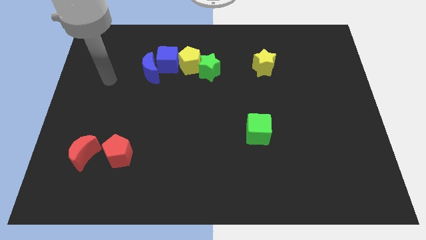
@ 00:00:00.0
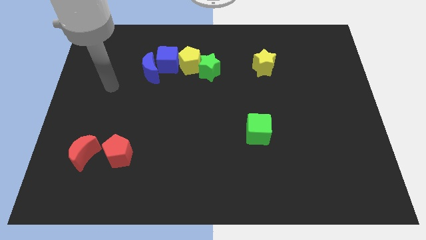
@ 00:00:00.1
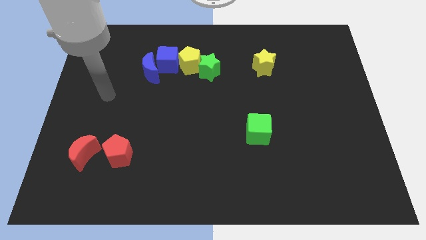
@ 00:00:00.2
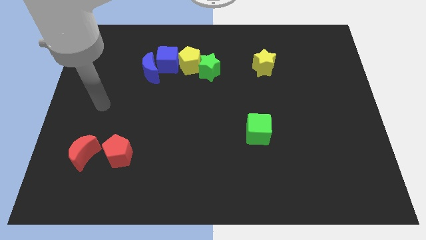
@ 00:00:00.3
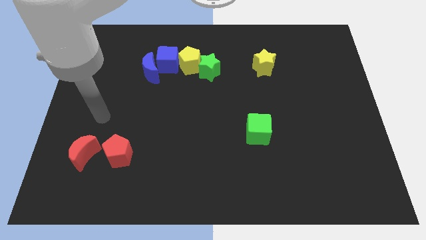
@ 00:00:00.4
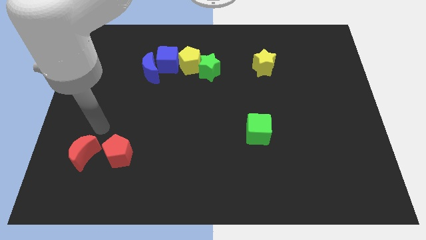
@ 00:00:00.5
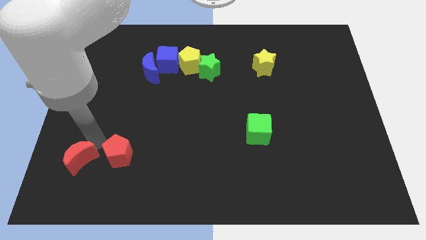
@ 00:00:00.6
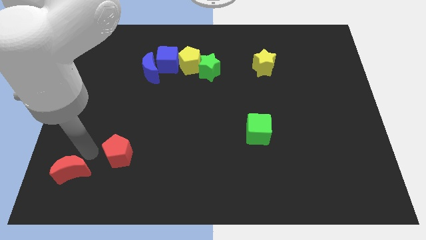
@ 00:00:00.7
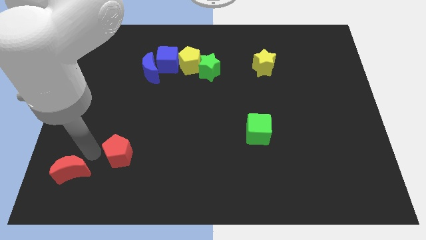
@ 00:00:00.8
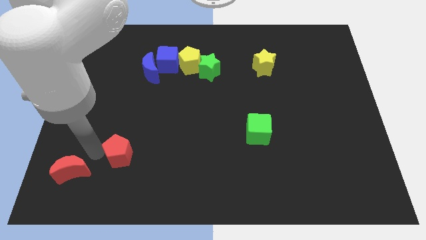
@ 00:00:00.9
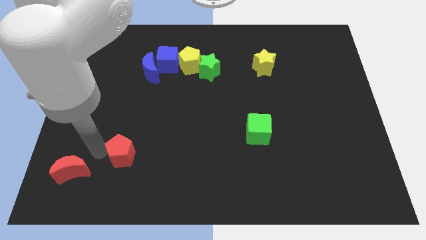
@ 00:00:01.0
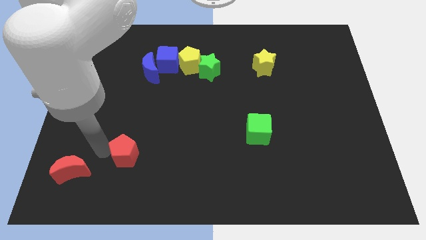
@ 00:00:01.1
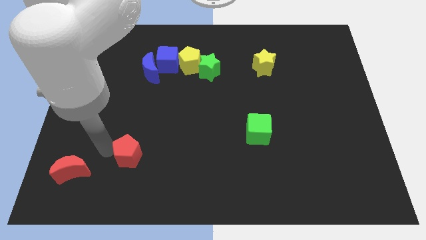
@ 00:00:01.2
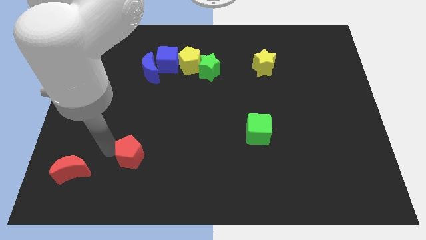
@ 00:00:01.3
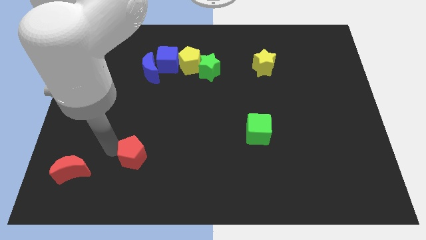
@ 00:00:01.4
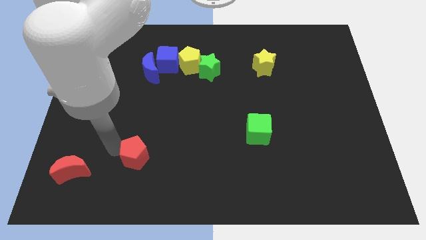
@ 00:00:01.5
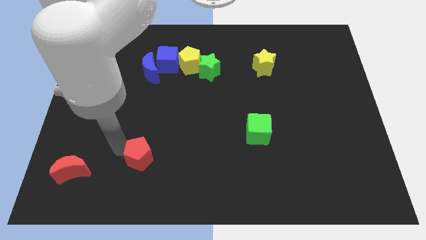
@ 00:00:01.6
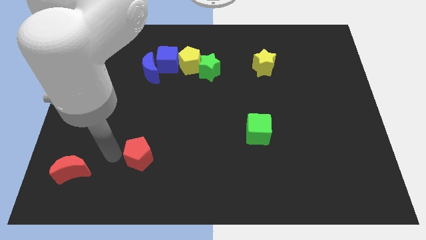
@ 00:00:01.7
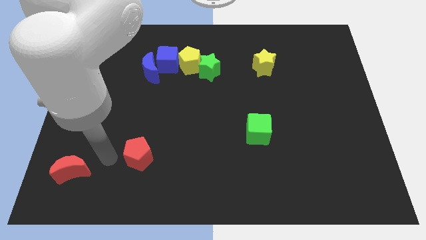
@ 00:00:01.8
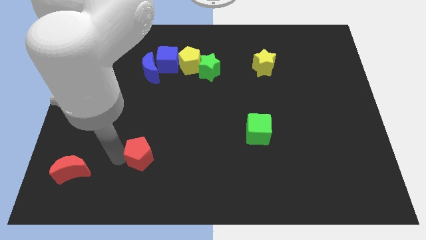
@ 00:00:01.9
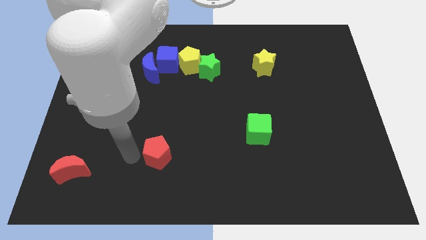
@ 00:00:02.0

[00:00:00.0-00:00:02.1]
slightly slide the red pentagon to the right

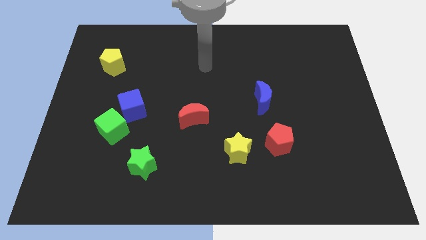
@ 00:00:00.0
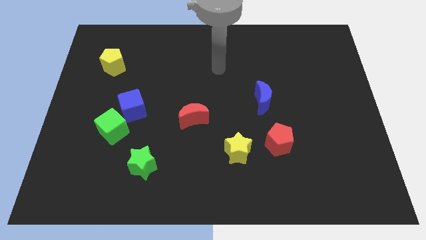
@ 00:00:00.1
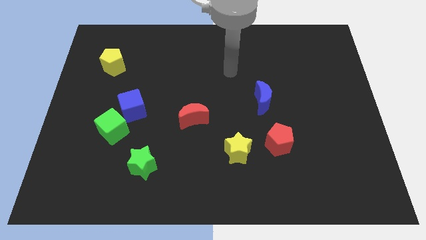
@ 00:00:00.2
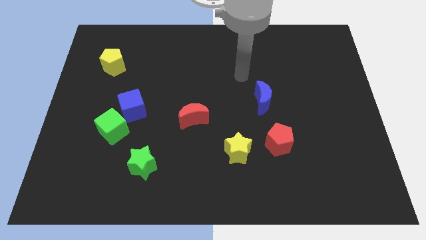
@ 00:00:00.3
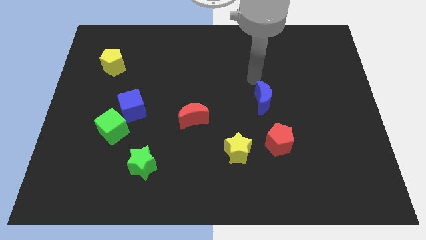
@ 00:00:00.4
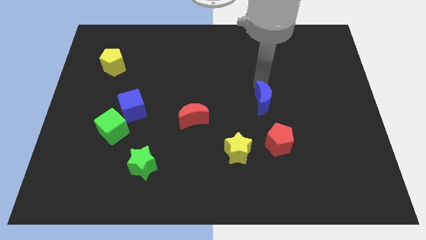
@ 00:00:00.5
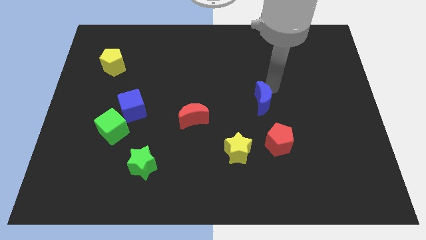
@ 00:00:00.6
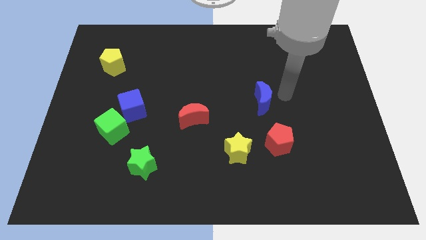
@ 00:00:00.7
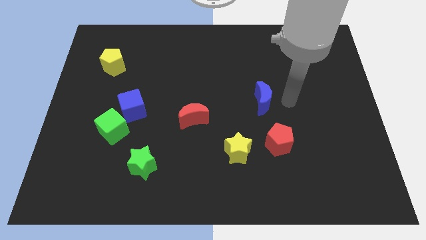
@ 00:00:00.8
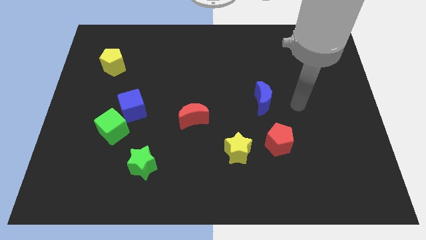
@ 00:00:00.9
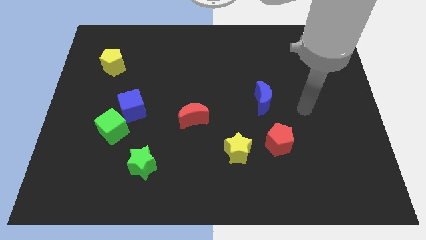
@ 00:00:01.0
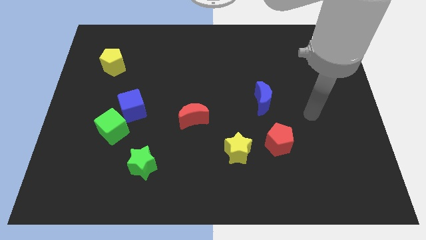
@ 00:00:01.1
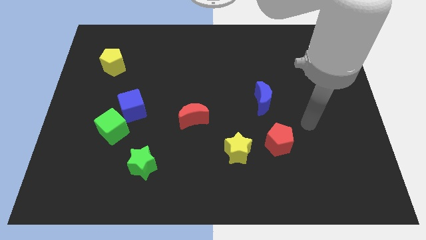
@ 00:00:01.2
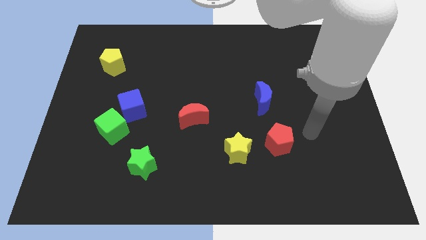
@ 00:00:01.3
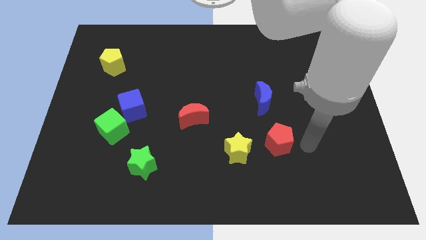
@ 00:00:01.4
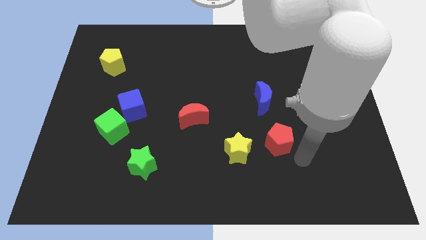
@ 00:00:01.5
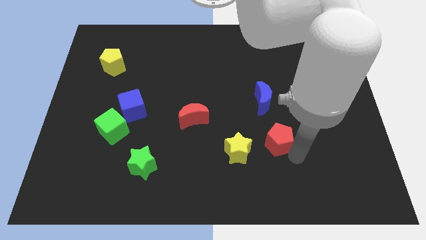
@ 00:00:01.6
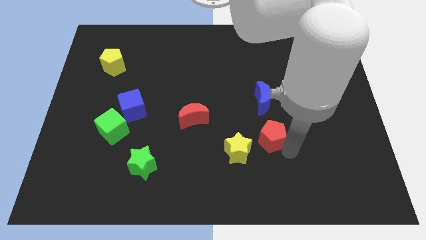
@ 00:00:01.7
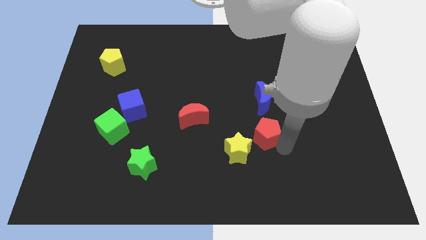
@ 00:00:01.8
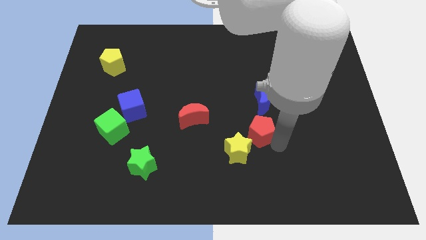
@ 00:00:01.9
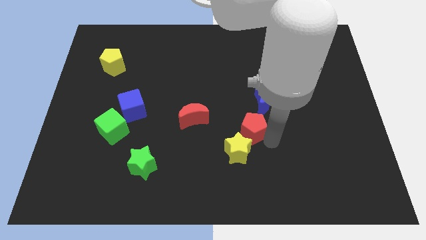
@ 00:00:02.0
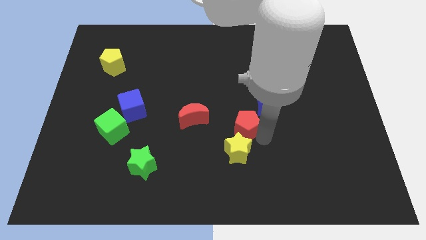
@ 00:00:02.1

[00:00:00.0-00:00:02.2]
slide the red pentagon somewhat up and then to the left

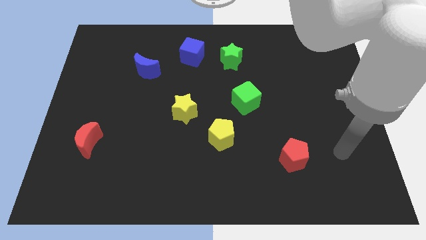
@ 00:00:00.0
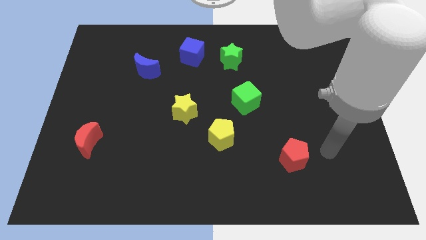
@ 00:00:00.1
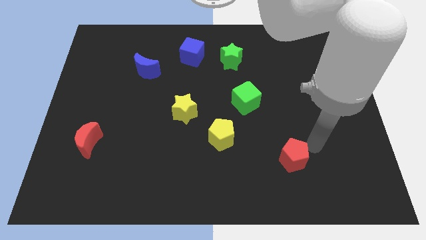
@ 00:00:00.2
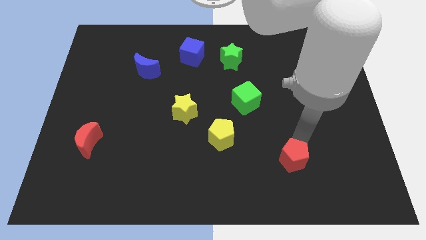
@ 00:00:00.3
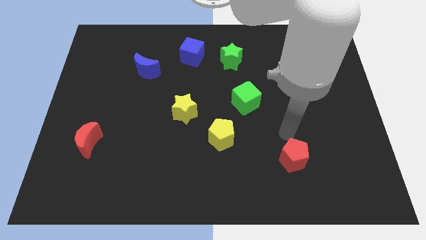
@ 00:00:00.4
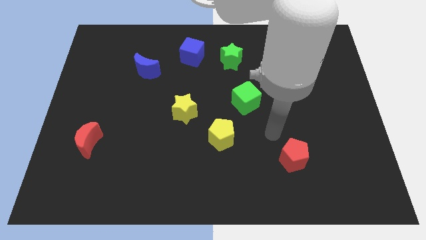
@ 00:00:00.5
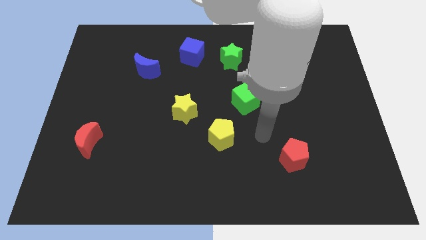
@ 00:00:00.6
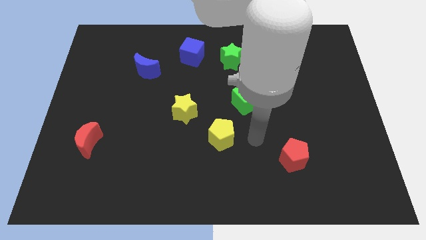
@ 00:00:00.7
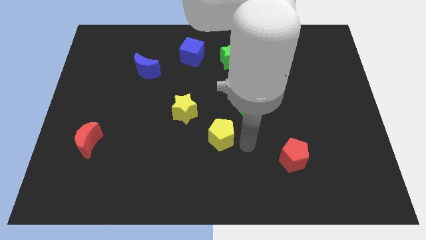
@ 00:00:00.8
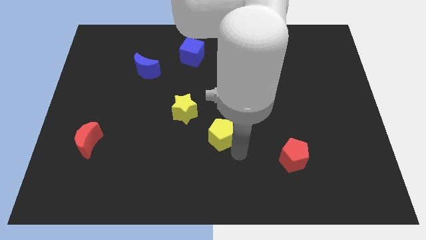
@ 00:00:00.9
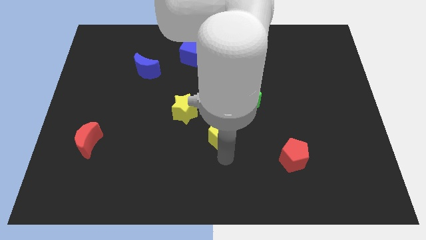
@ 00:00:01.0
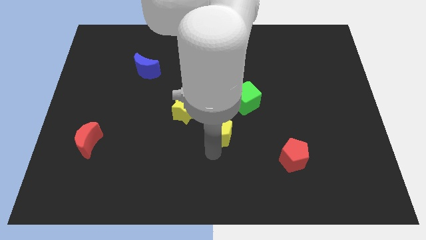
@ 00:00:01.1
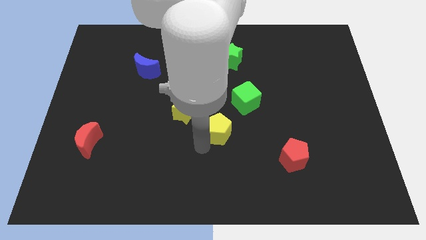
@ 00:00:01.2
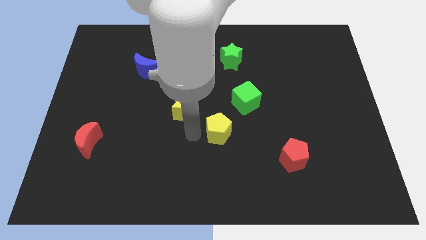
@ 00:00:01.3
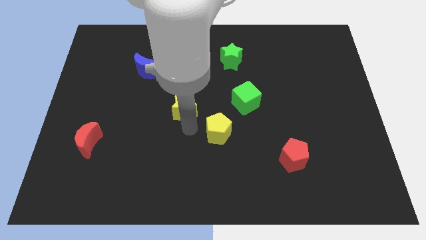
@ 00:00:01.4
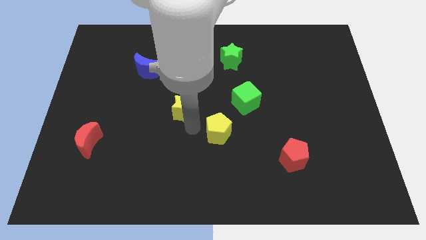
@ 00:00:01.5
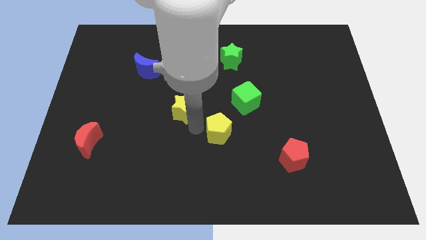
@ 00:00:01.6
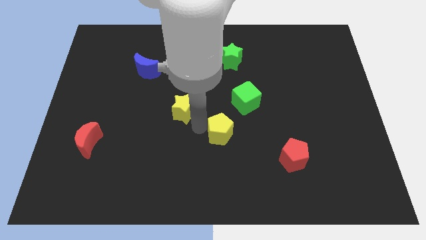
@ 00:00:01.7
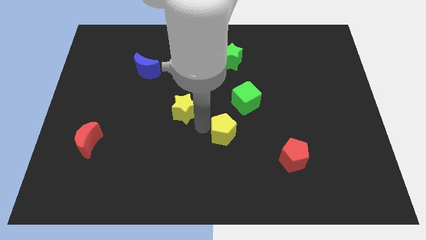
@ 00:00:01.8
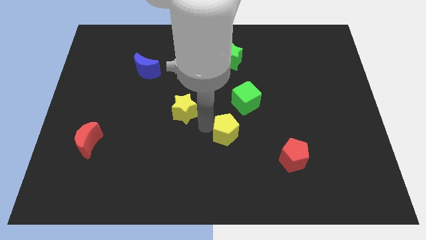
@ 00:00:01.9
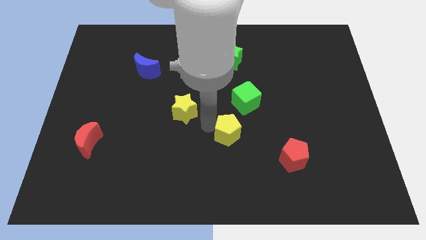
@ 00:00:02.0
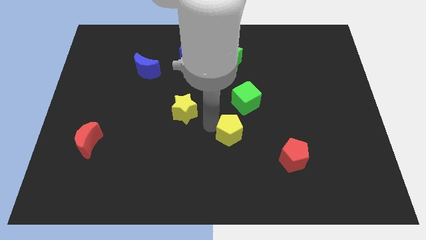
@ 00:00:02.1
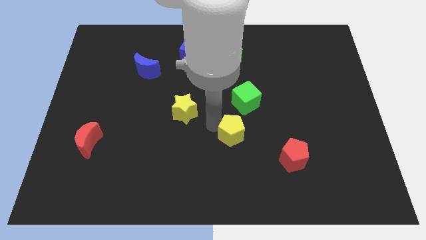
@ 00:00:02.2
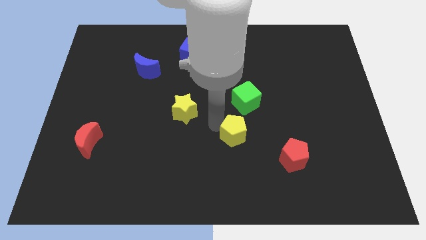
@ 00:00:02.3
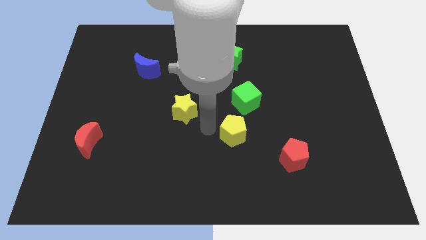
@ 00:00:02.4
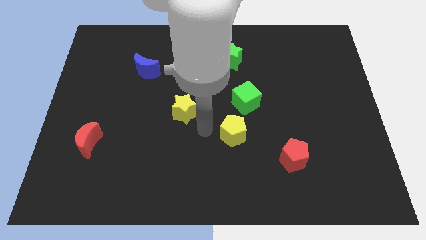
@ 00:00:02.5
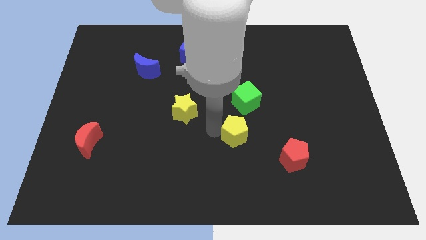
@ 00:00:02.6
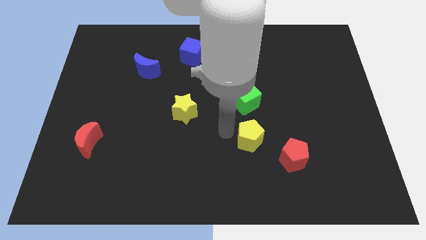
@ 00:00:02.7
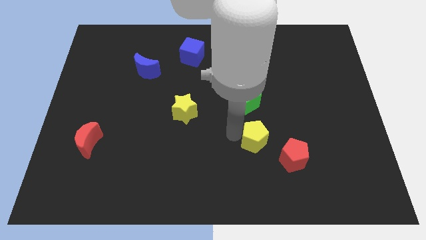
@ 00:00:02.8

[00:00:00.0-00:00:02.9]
push the yellow pentagon somewhat right

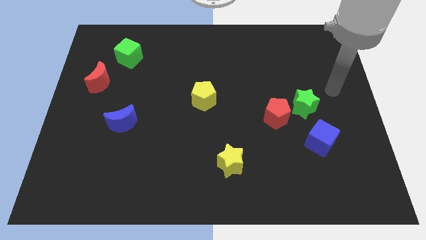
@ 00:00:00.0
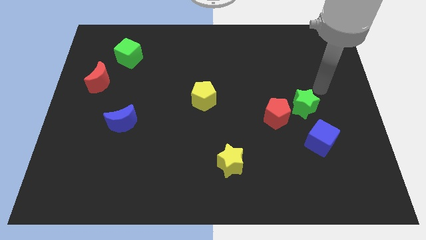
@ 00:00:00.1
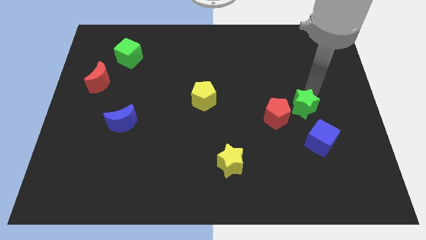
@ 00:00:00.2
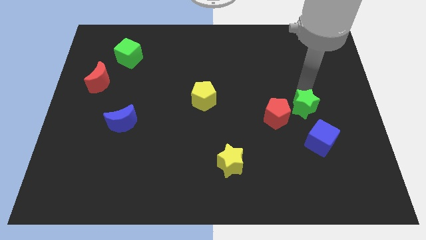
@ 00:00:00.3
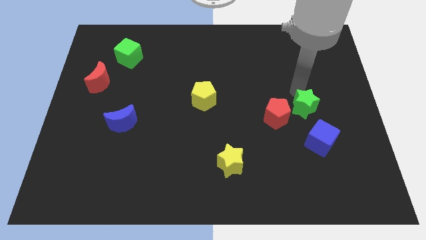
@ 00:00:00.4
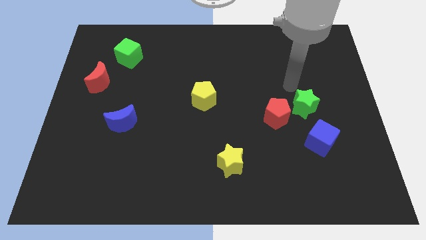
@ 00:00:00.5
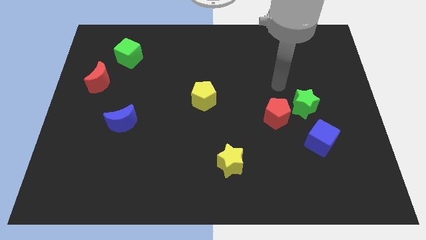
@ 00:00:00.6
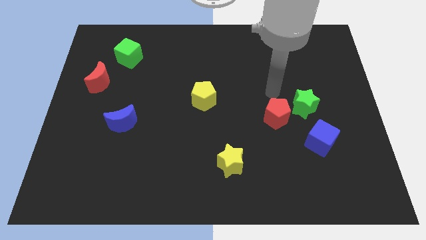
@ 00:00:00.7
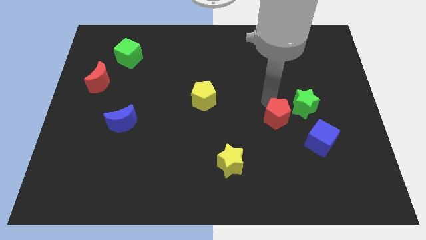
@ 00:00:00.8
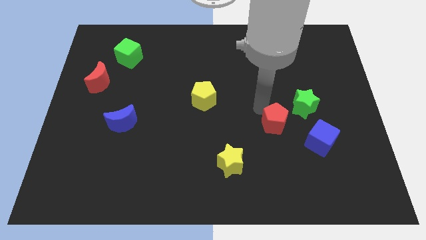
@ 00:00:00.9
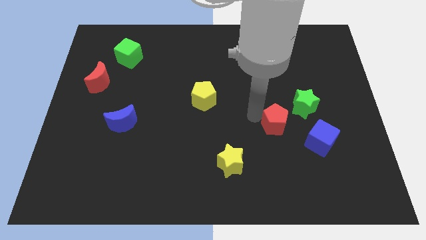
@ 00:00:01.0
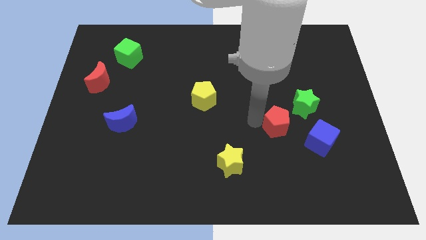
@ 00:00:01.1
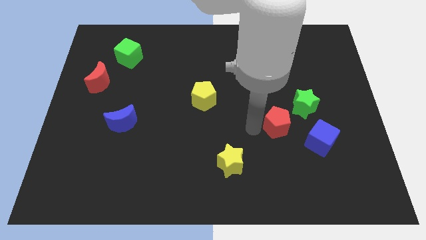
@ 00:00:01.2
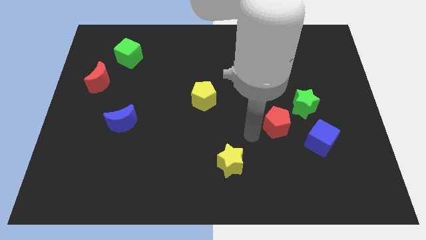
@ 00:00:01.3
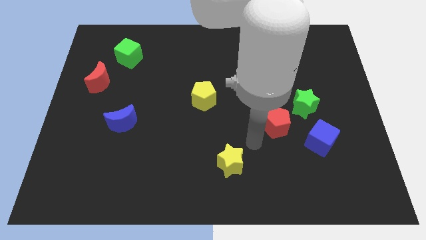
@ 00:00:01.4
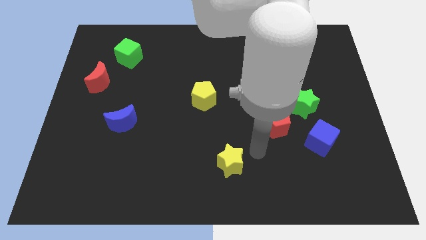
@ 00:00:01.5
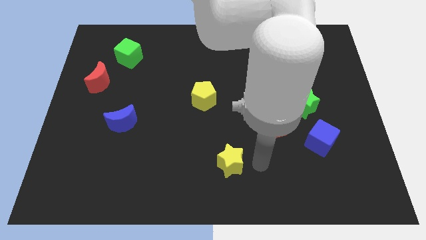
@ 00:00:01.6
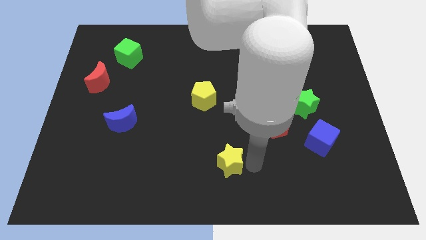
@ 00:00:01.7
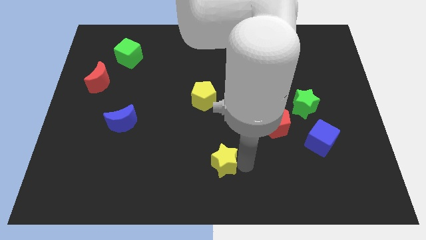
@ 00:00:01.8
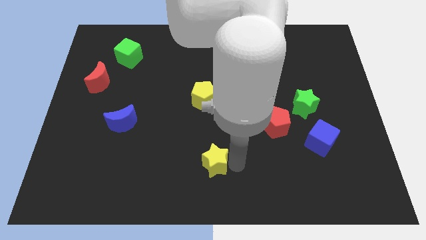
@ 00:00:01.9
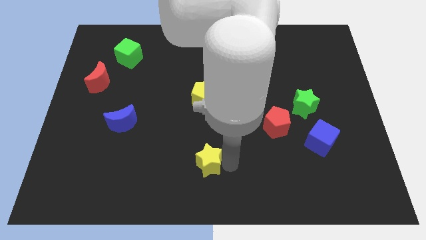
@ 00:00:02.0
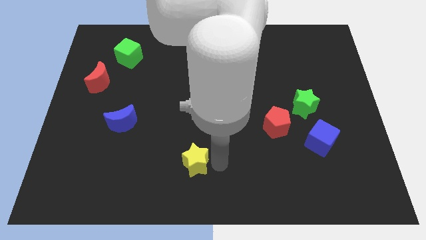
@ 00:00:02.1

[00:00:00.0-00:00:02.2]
slide the yellow star a bit to the left
